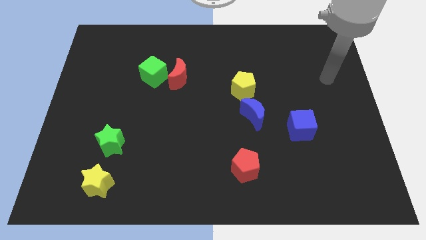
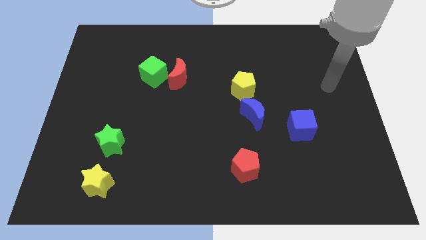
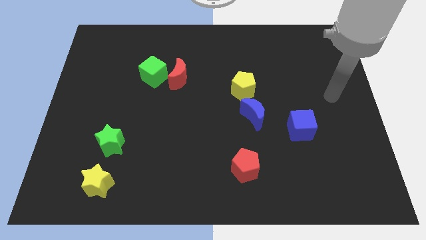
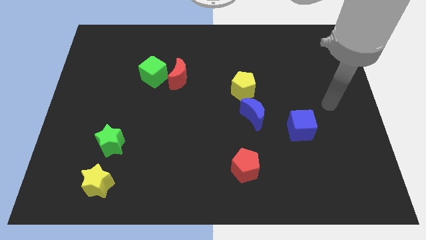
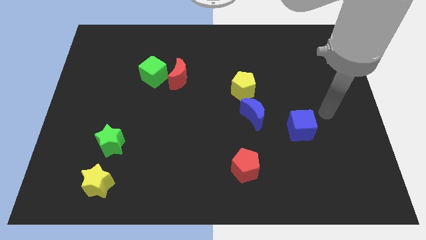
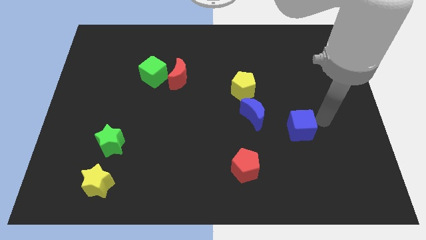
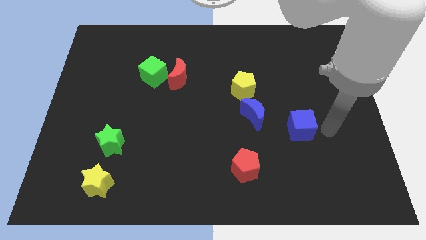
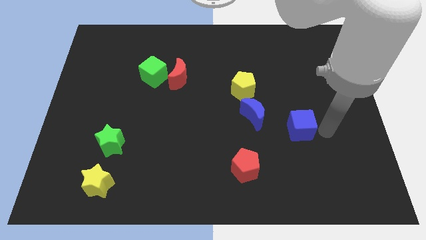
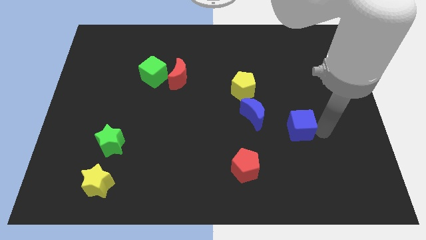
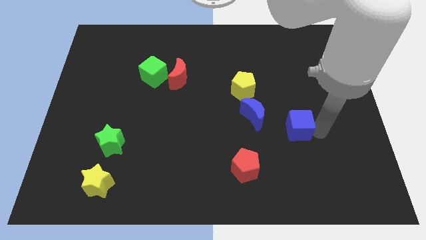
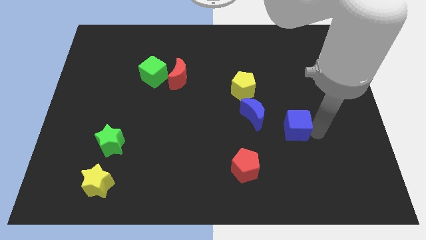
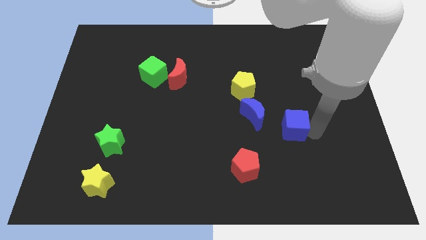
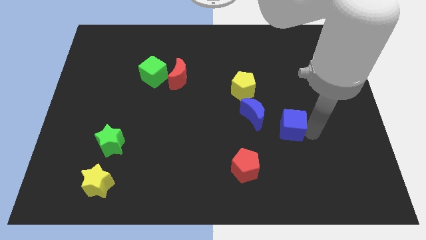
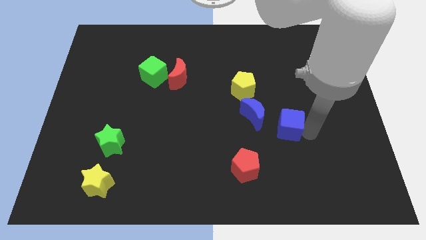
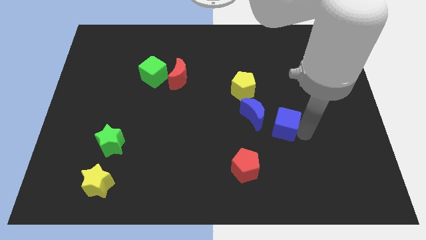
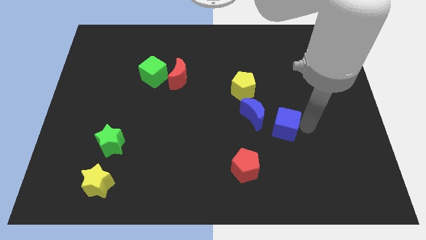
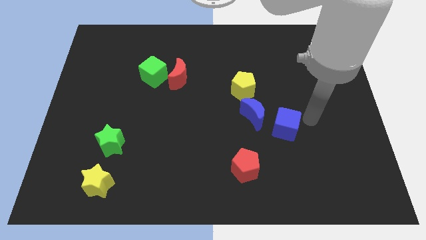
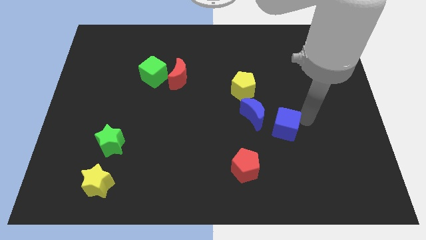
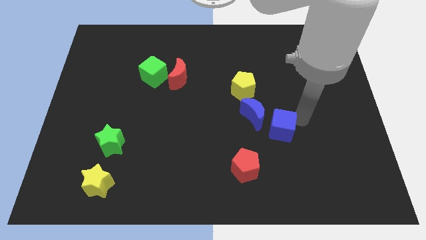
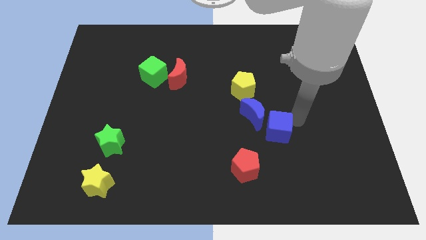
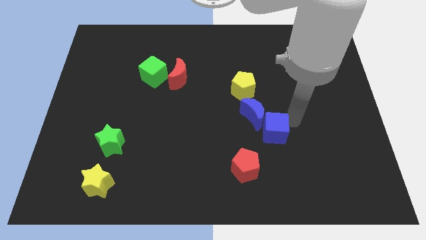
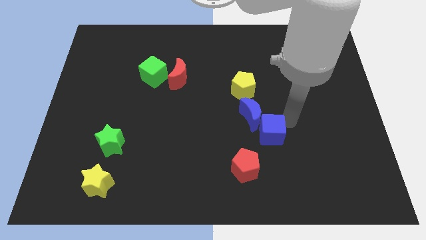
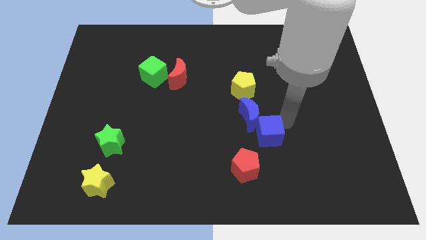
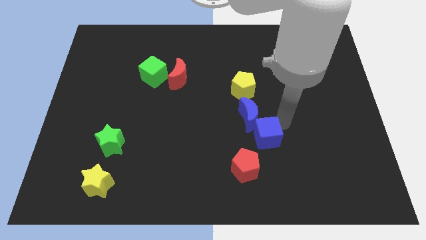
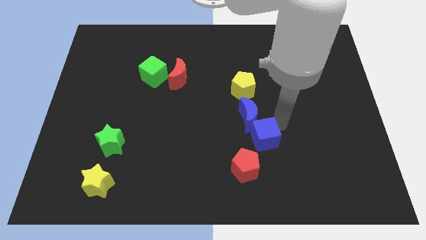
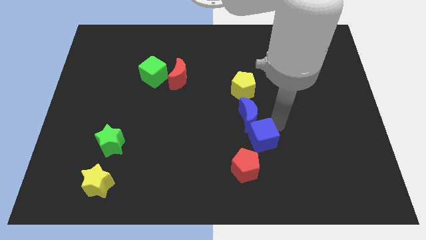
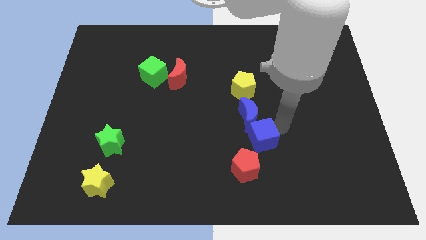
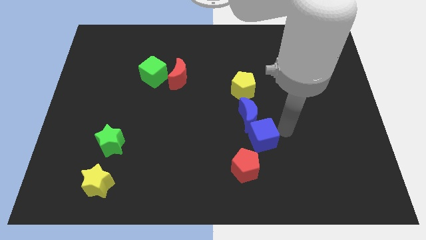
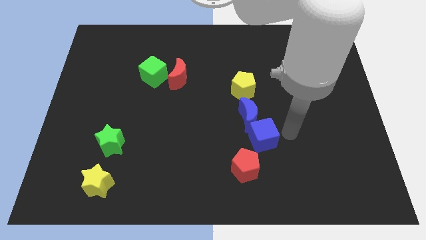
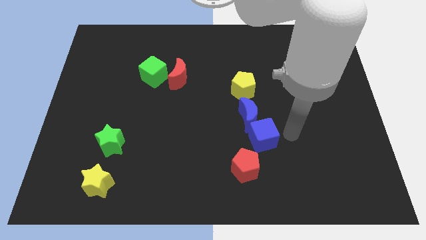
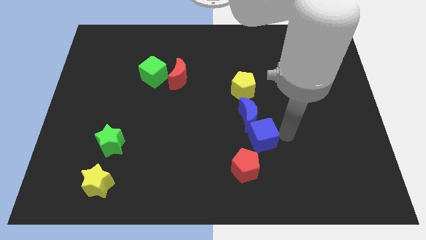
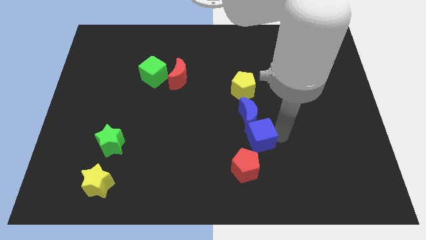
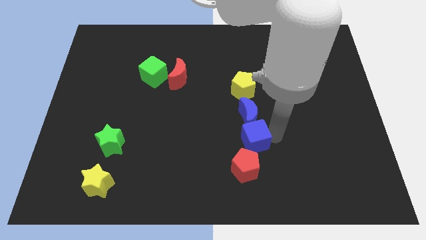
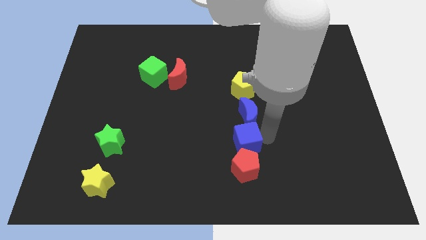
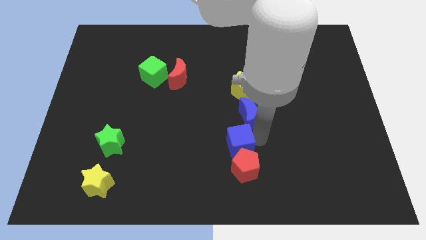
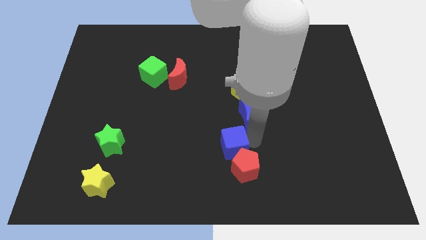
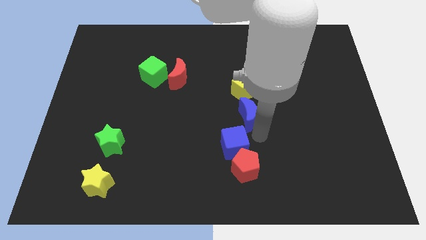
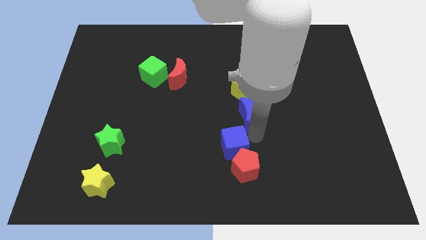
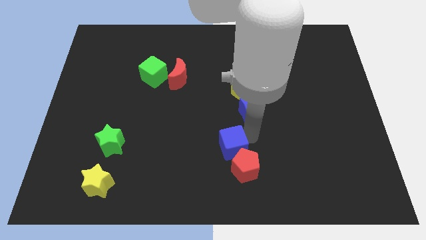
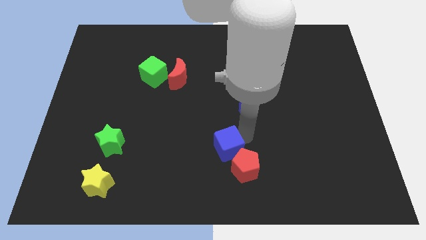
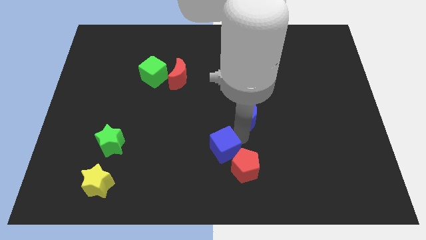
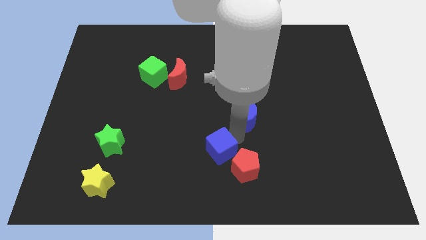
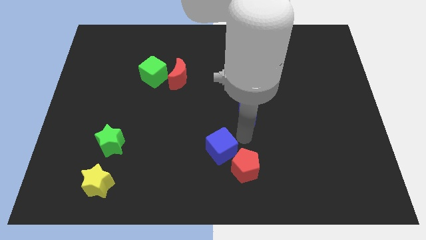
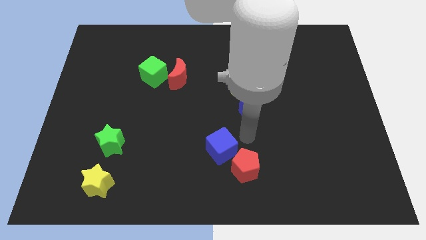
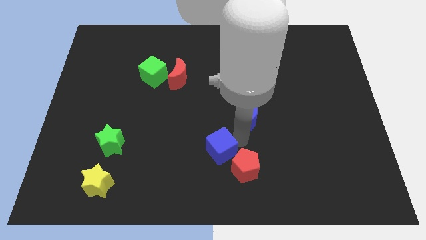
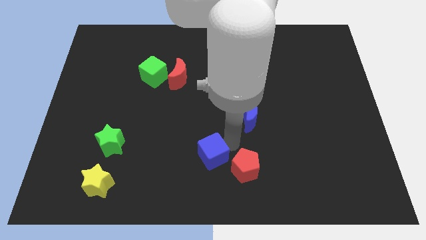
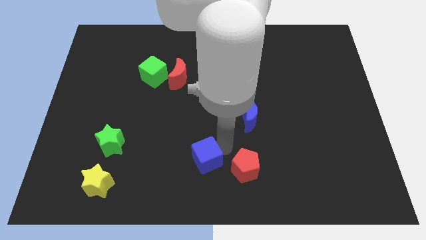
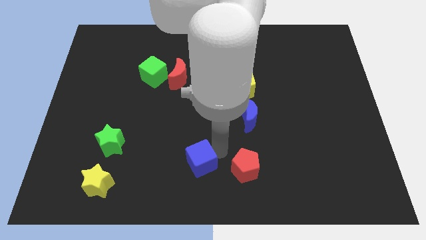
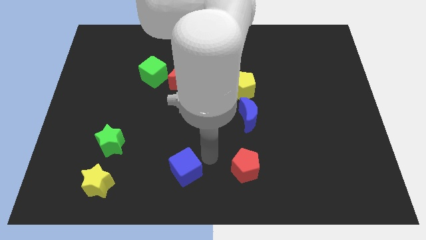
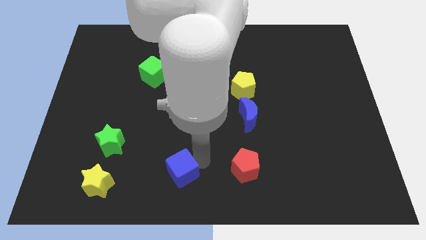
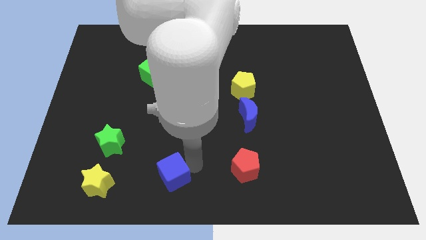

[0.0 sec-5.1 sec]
slide the blue cube to the right side of the yellow star

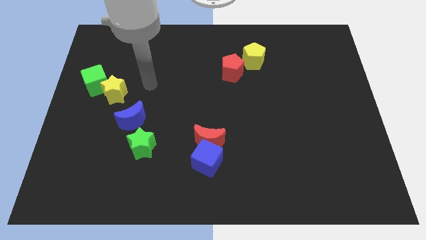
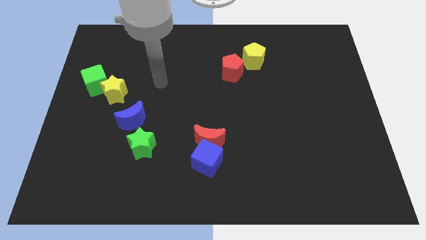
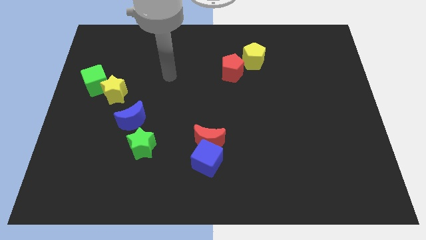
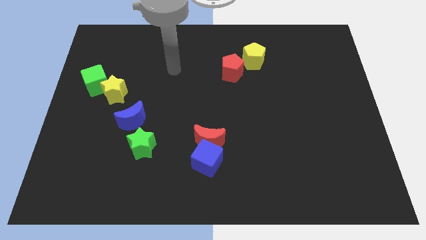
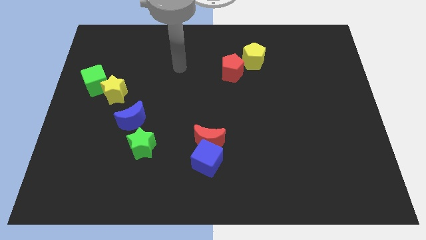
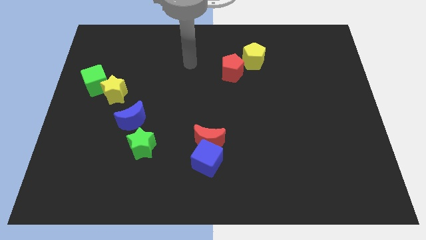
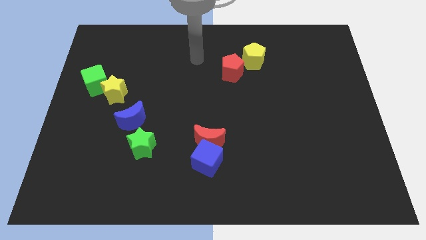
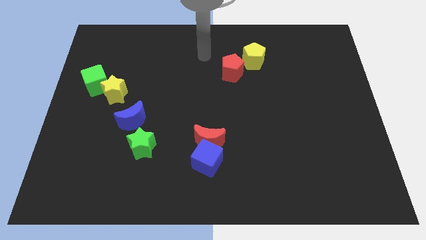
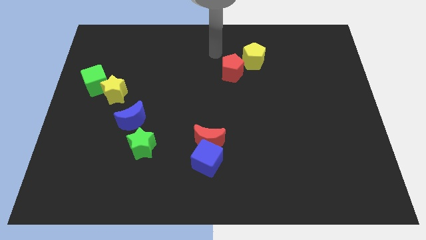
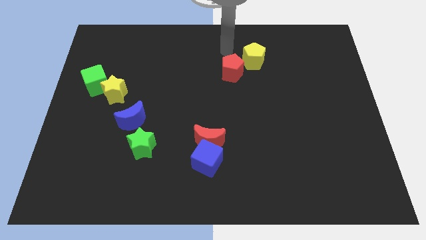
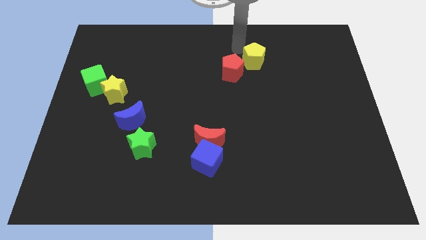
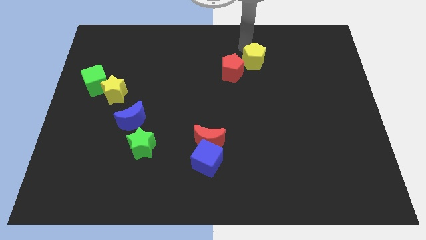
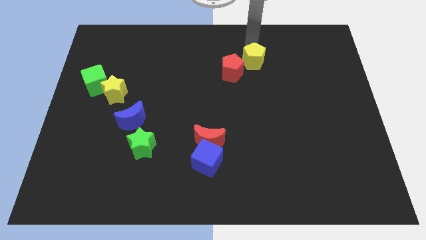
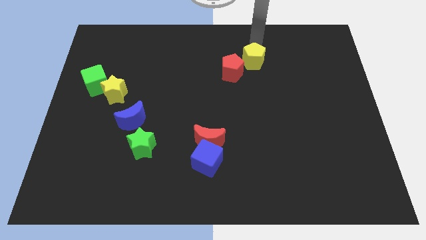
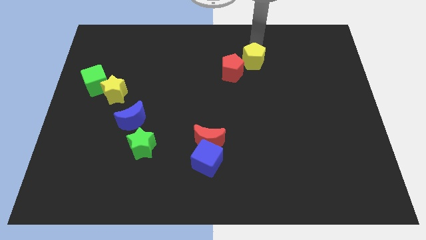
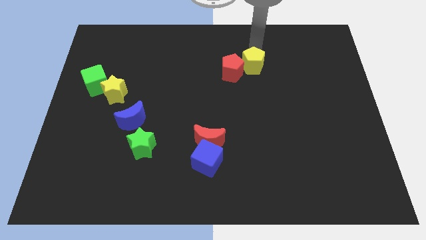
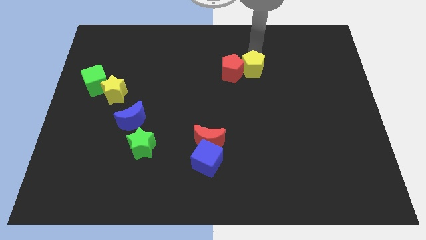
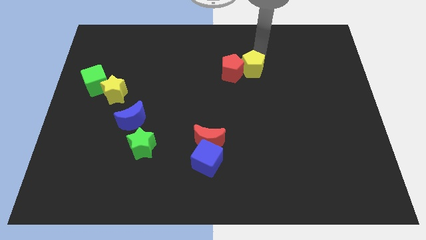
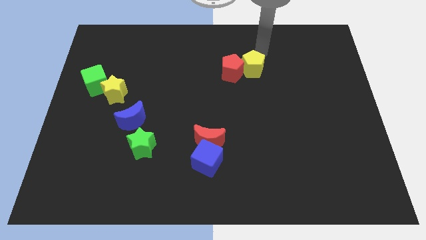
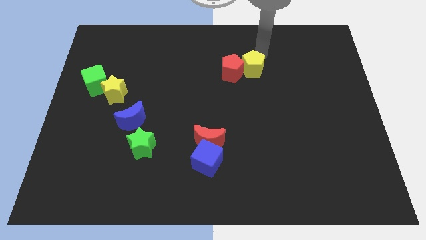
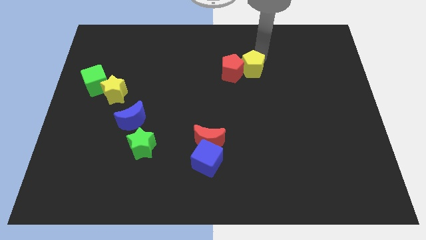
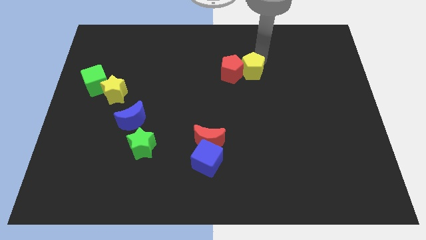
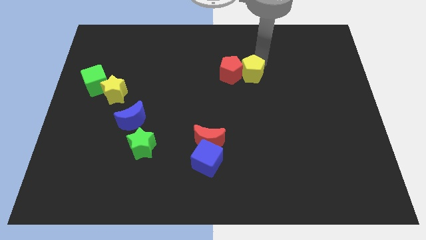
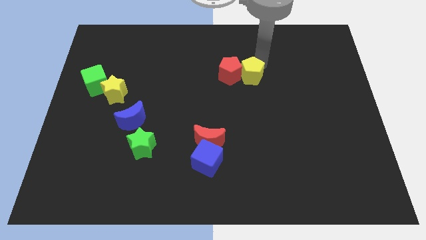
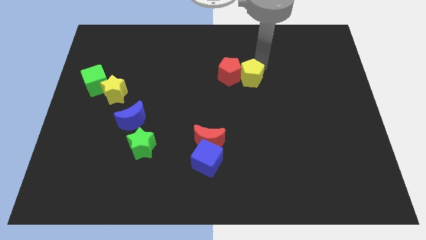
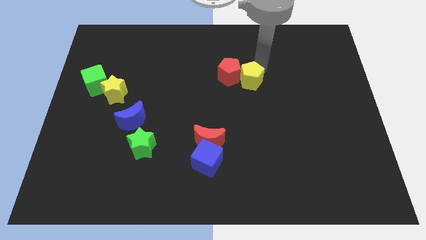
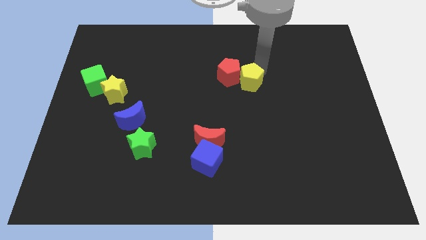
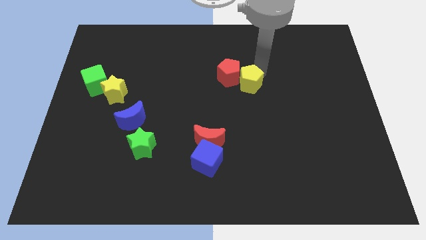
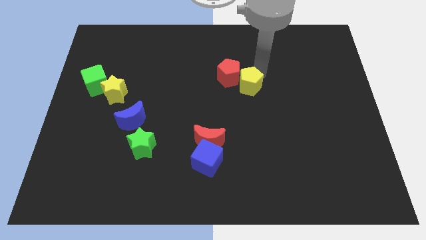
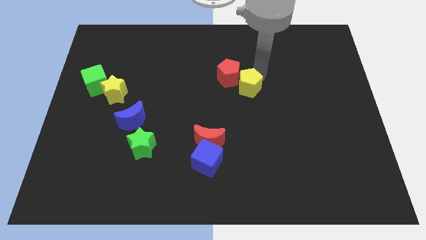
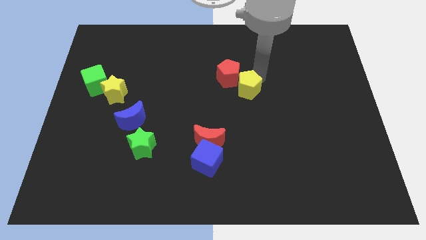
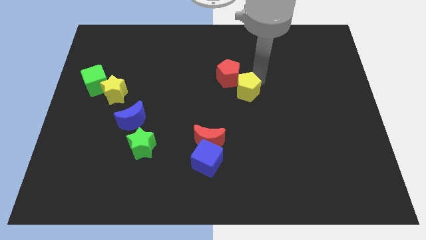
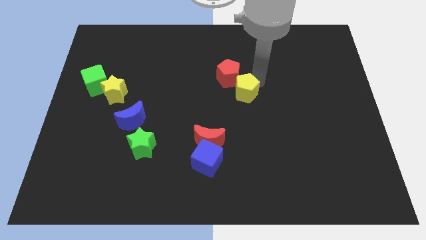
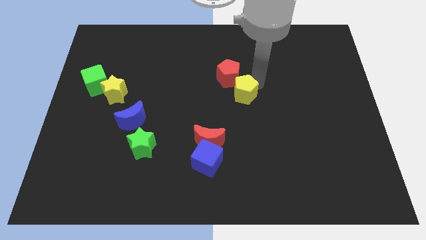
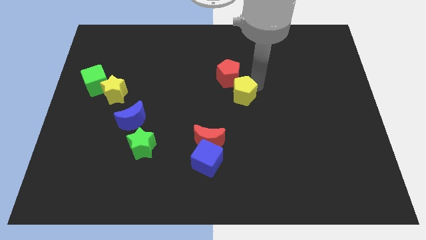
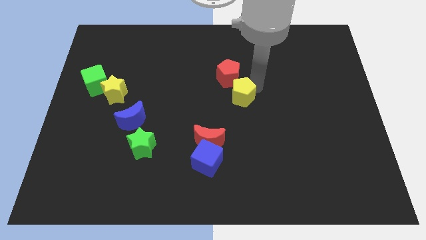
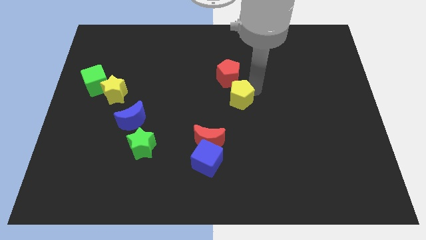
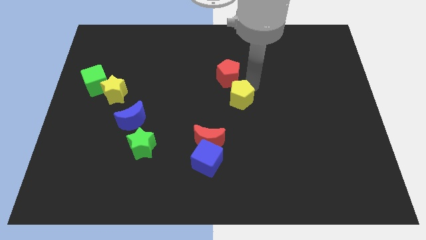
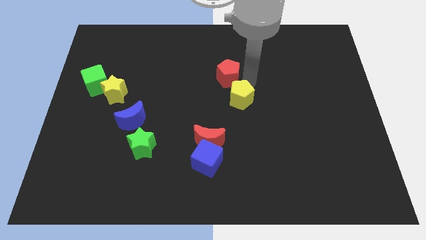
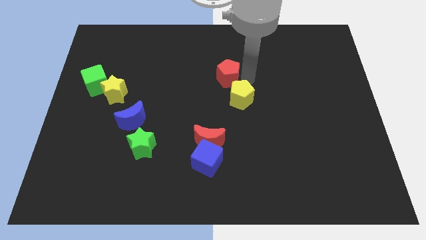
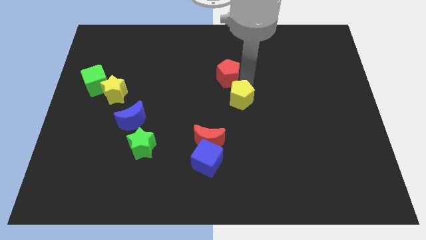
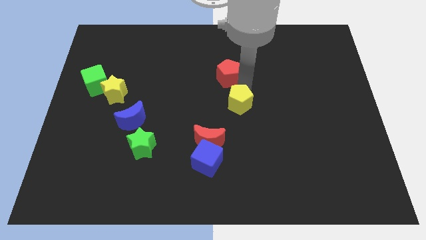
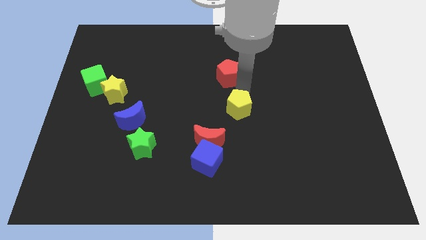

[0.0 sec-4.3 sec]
push the yellow pentagon to the top right side of the red moon
